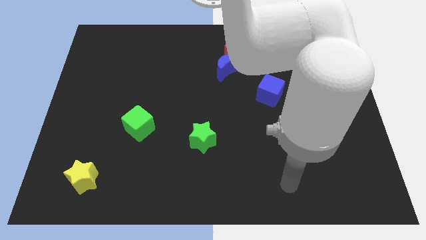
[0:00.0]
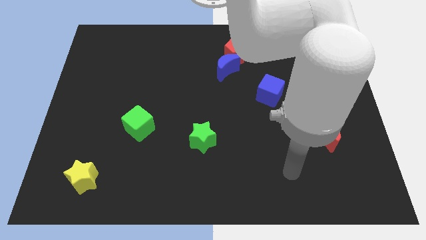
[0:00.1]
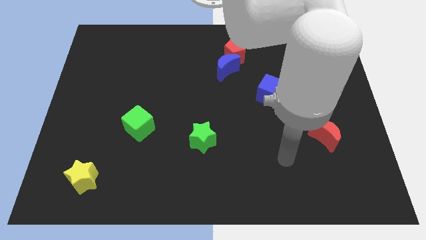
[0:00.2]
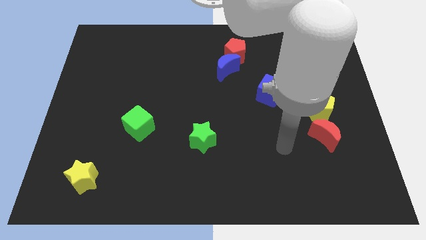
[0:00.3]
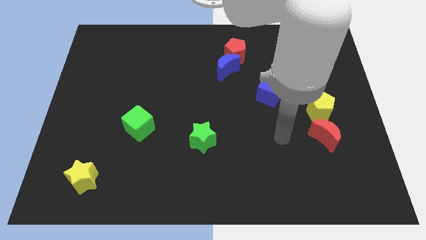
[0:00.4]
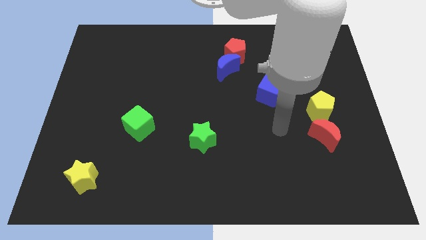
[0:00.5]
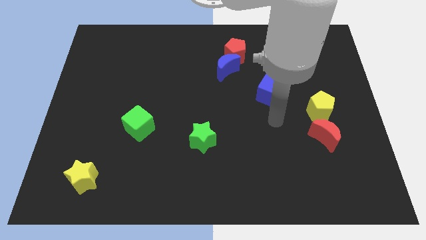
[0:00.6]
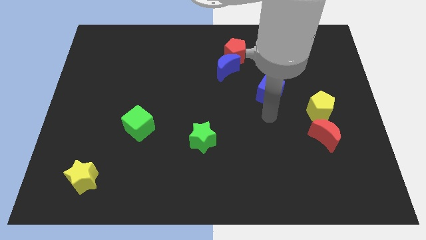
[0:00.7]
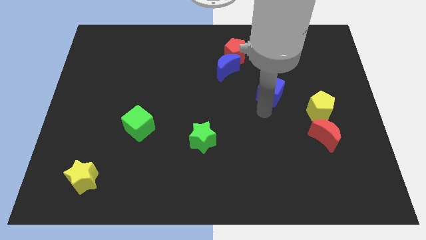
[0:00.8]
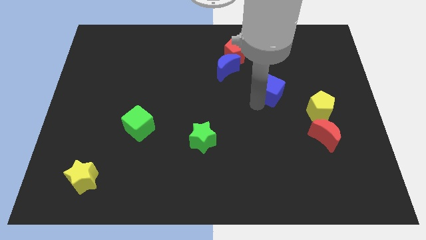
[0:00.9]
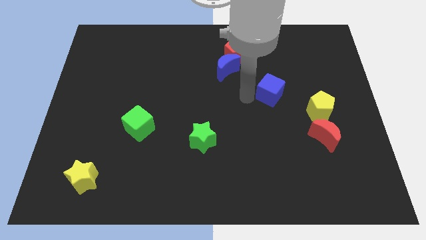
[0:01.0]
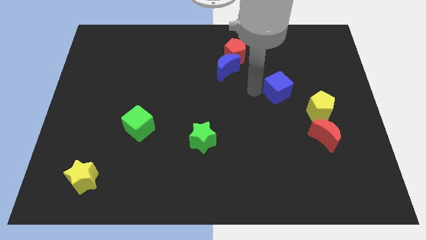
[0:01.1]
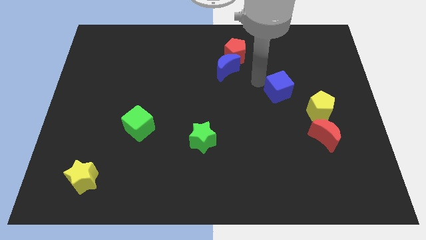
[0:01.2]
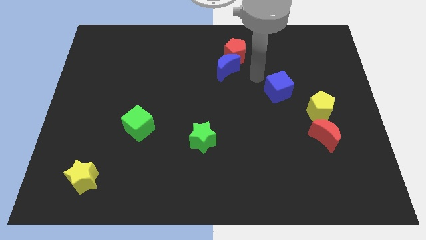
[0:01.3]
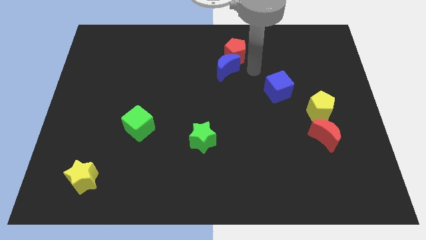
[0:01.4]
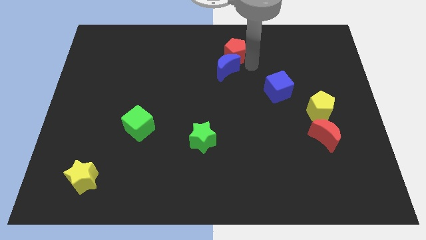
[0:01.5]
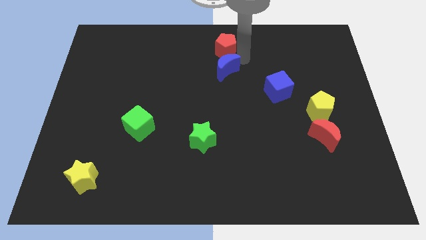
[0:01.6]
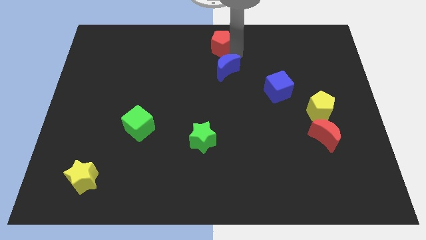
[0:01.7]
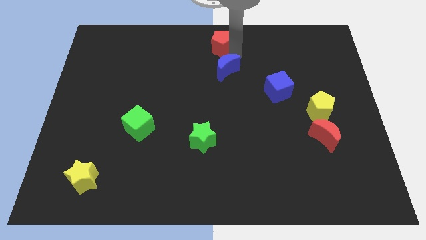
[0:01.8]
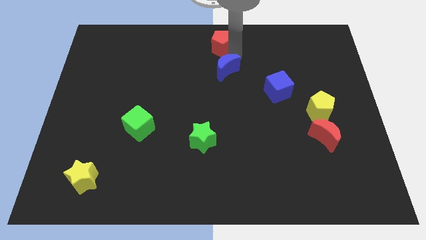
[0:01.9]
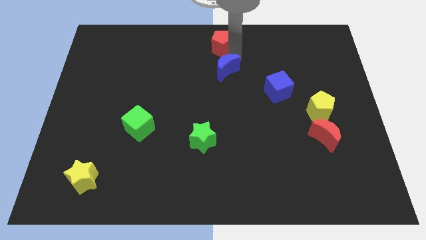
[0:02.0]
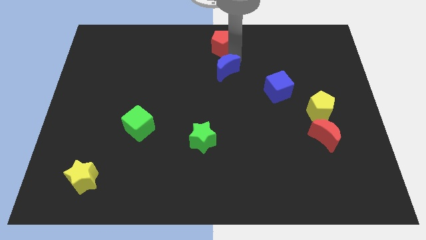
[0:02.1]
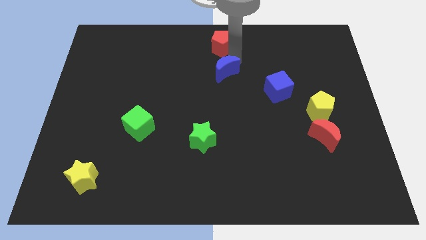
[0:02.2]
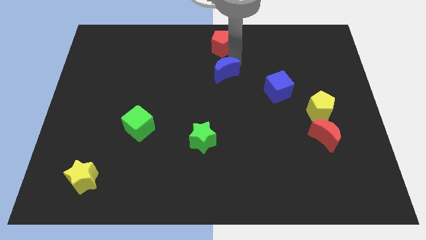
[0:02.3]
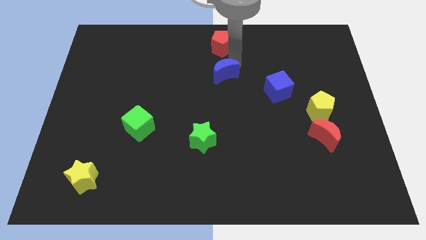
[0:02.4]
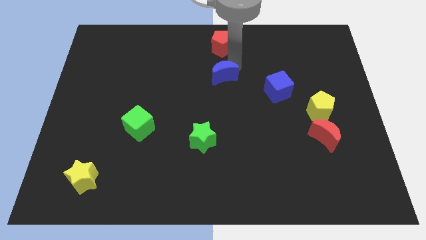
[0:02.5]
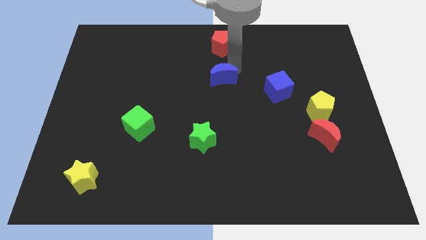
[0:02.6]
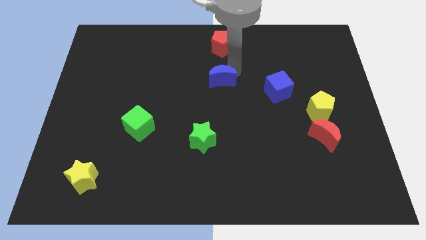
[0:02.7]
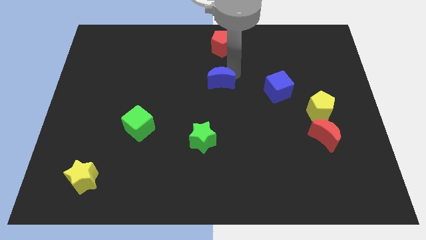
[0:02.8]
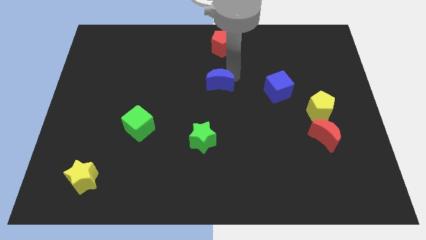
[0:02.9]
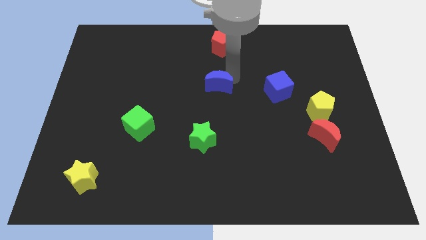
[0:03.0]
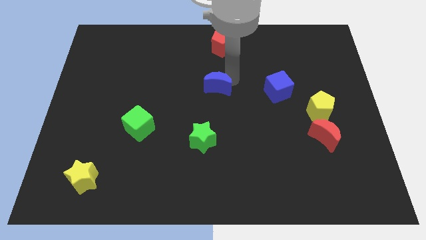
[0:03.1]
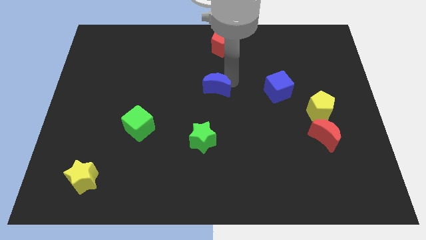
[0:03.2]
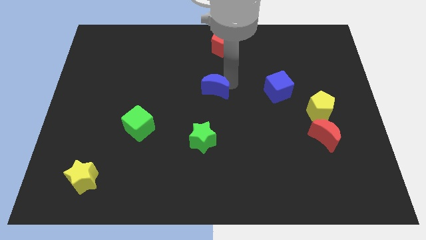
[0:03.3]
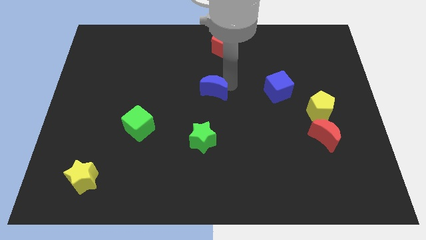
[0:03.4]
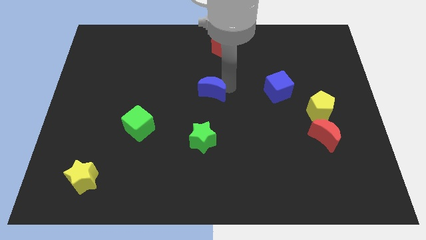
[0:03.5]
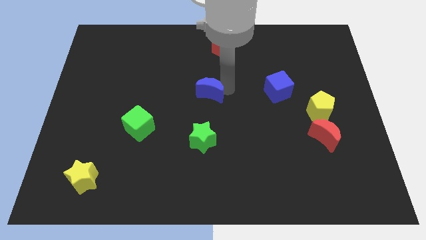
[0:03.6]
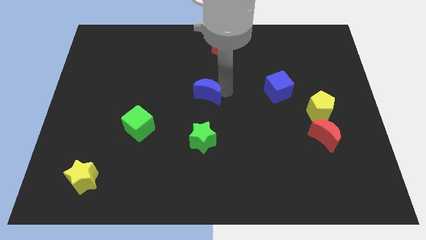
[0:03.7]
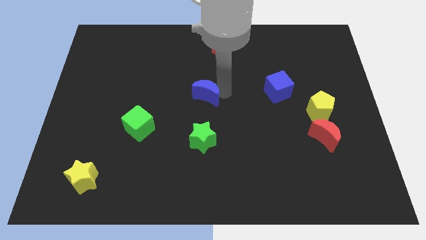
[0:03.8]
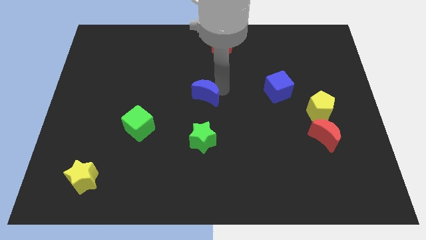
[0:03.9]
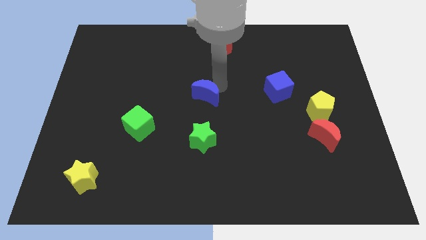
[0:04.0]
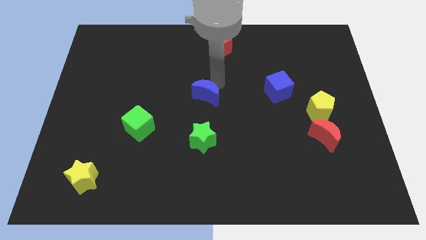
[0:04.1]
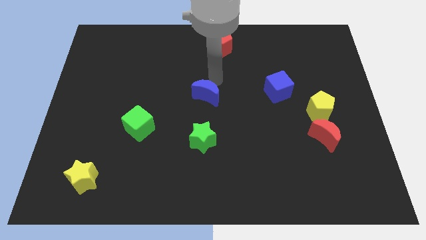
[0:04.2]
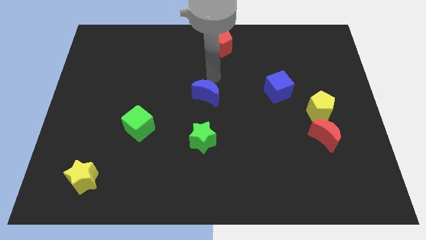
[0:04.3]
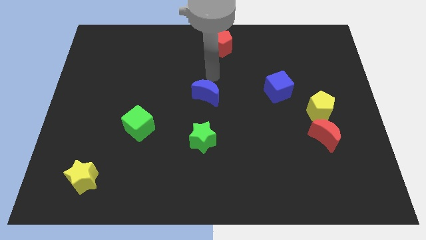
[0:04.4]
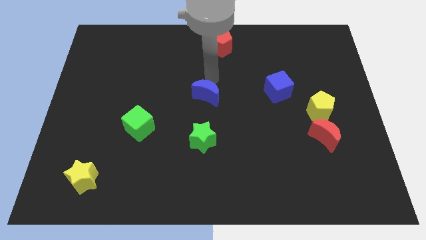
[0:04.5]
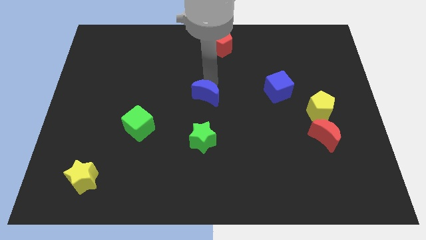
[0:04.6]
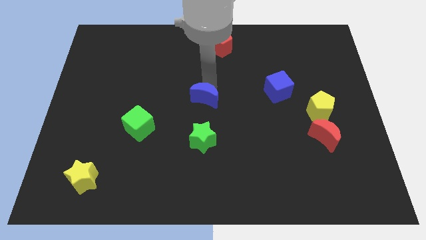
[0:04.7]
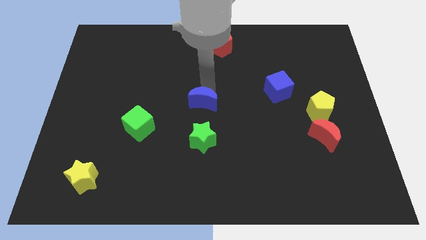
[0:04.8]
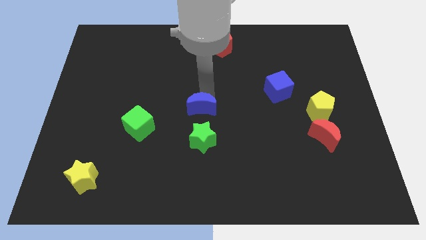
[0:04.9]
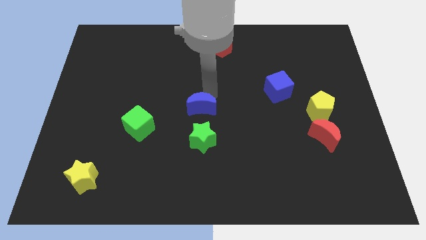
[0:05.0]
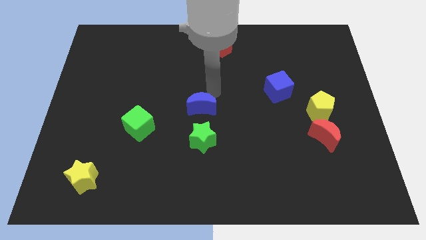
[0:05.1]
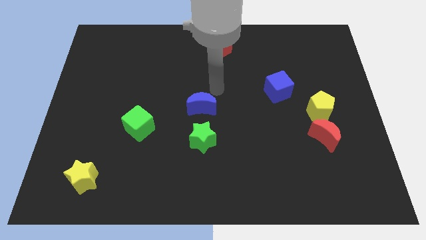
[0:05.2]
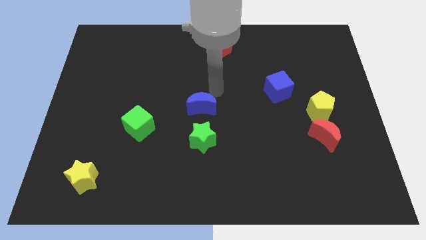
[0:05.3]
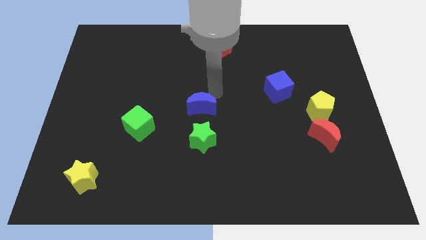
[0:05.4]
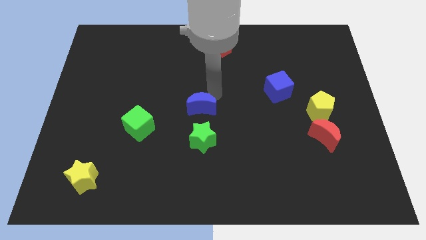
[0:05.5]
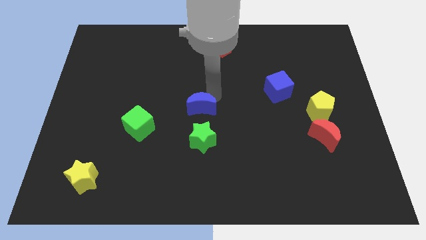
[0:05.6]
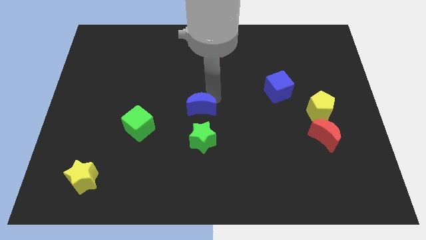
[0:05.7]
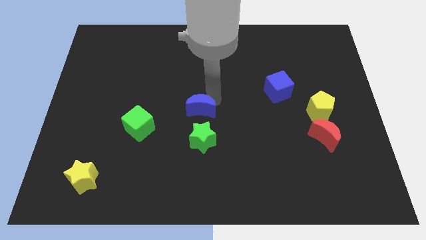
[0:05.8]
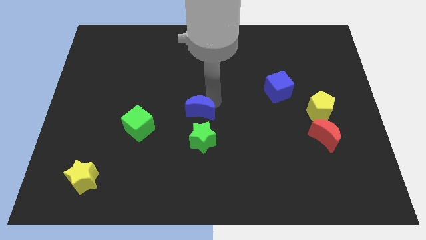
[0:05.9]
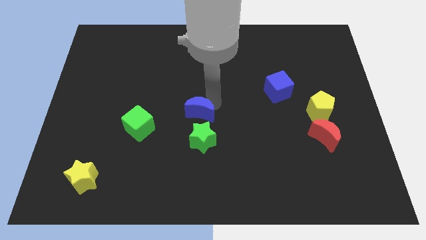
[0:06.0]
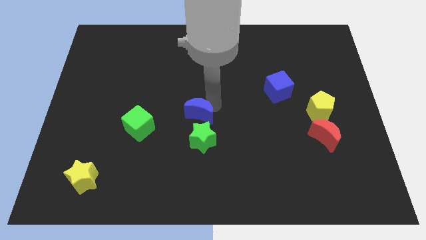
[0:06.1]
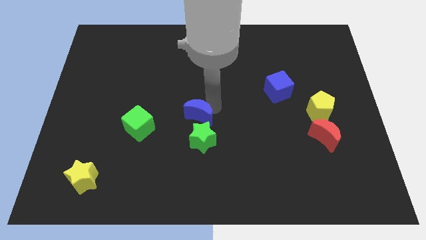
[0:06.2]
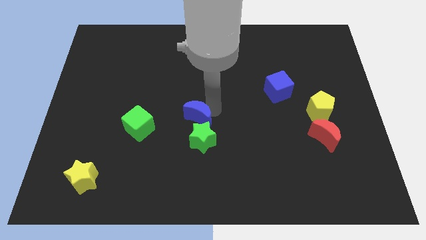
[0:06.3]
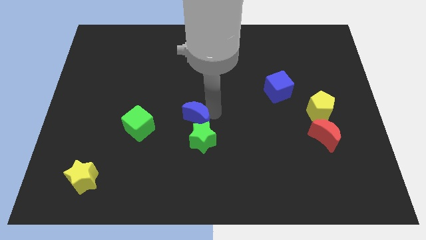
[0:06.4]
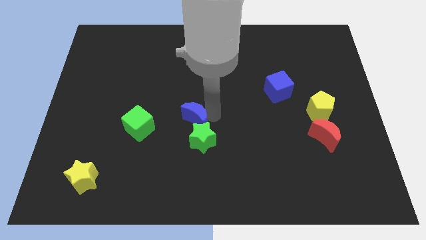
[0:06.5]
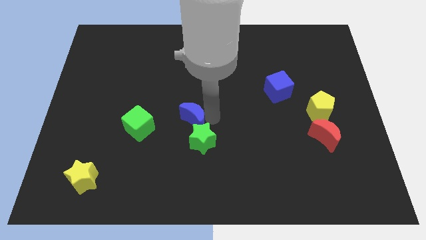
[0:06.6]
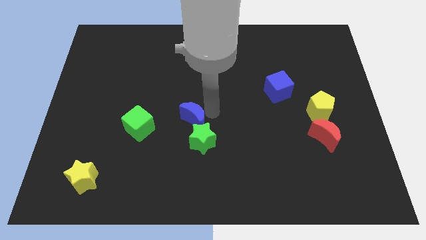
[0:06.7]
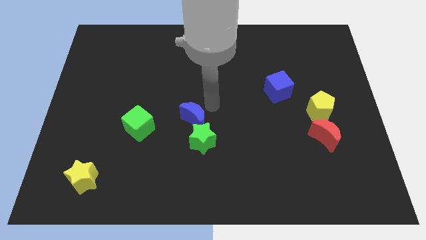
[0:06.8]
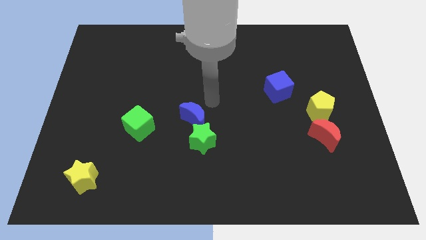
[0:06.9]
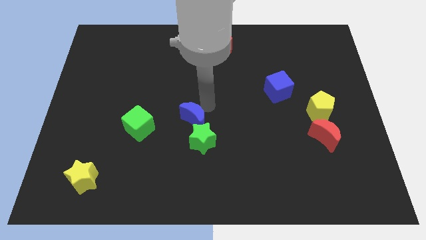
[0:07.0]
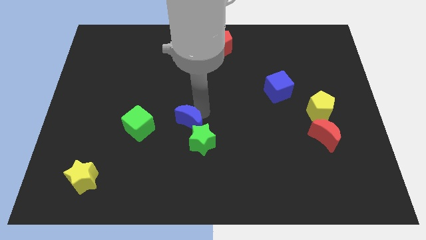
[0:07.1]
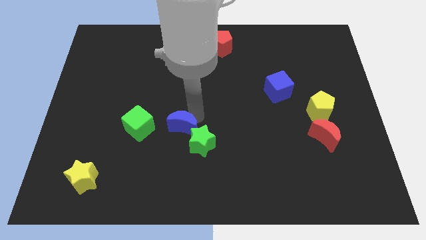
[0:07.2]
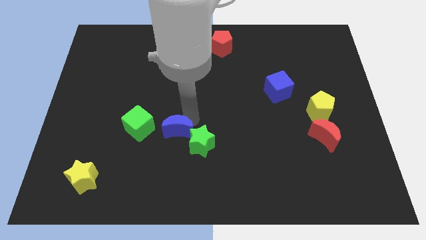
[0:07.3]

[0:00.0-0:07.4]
slide the blue moon downwards and left

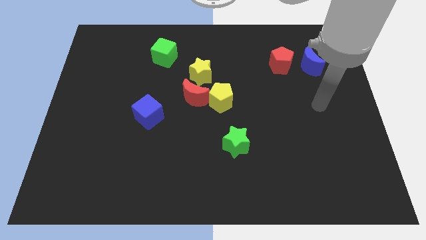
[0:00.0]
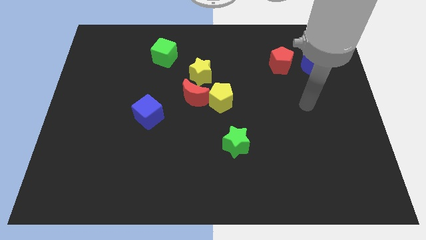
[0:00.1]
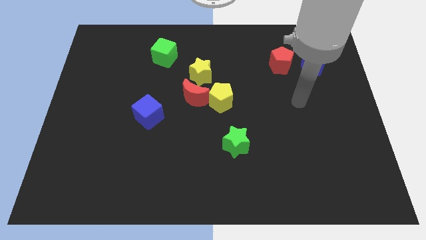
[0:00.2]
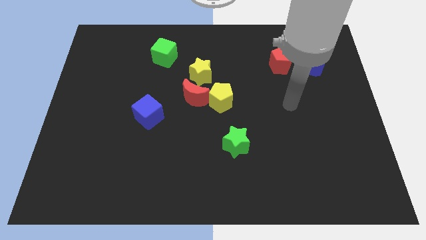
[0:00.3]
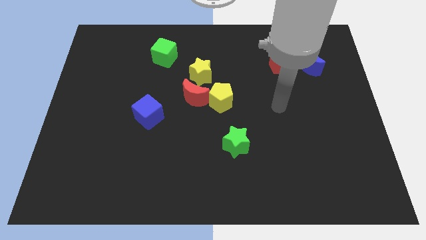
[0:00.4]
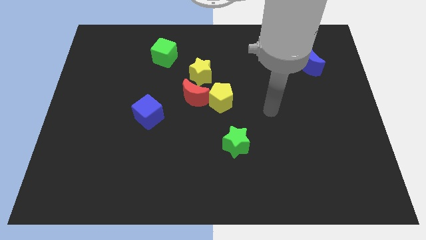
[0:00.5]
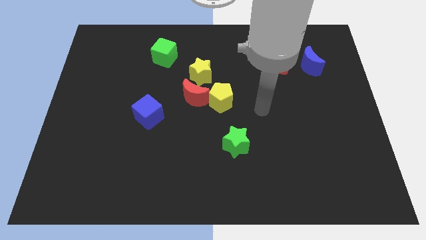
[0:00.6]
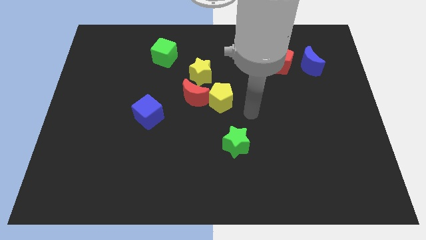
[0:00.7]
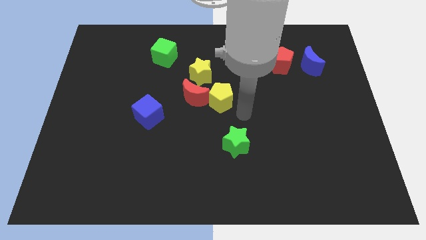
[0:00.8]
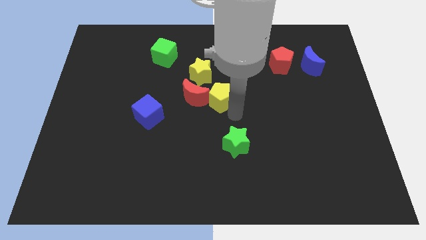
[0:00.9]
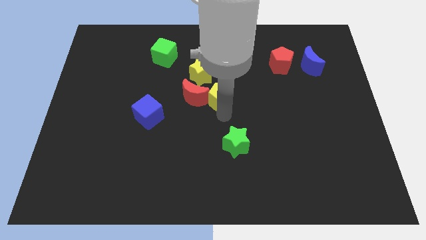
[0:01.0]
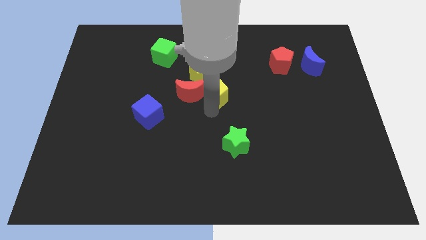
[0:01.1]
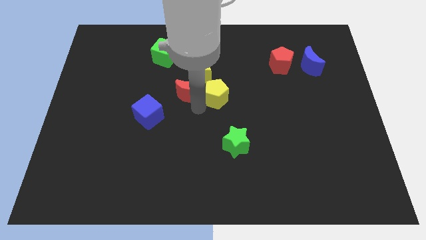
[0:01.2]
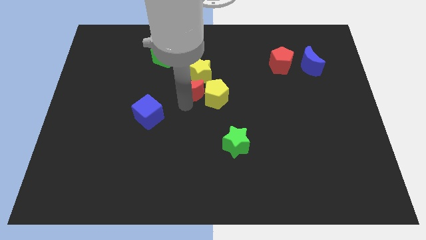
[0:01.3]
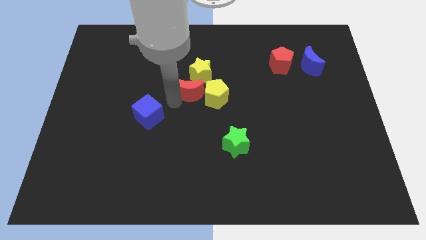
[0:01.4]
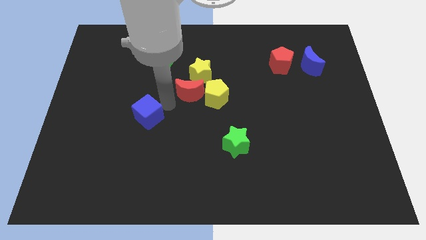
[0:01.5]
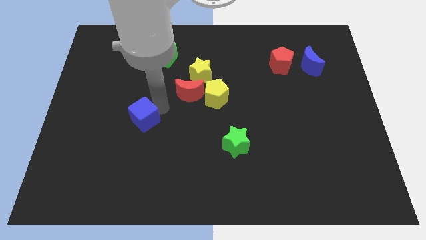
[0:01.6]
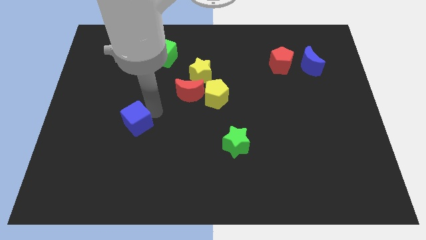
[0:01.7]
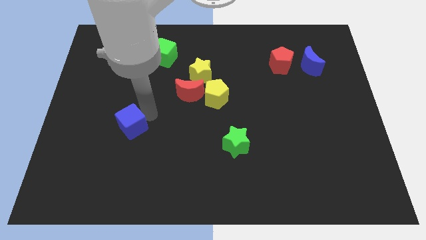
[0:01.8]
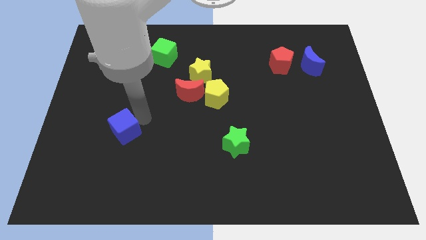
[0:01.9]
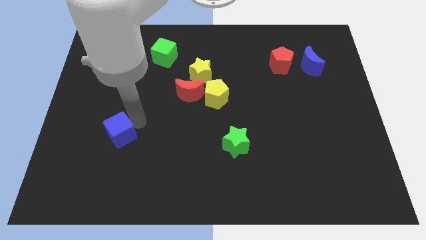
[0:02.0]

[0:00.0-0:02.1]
slide the blue cube downwards and then to the left a bit
